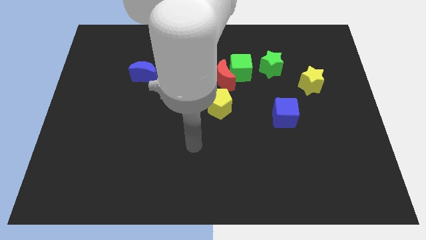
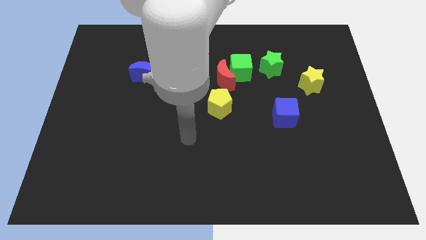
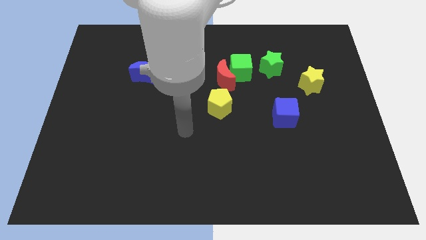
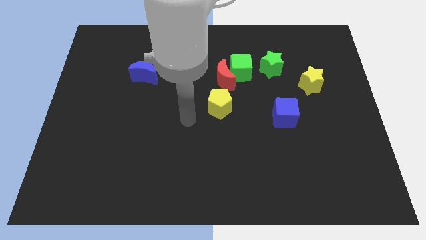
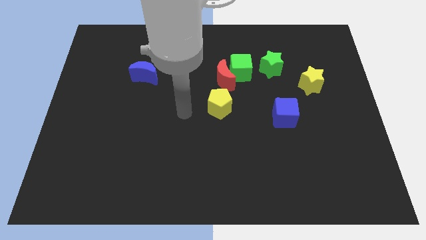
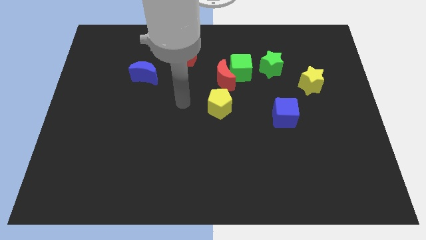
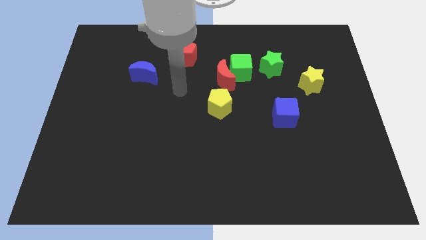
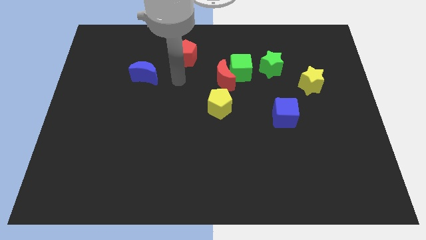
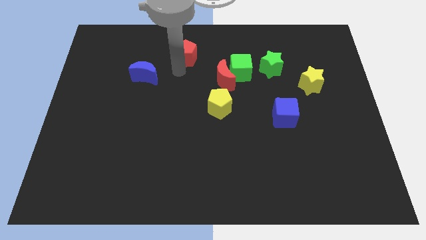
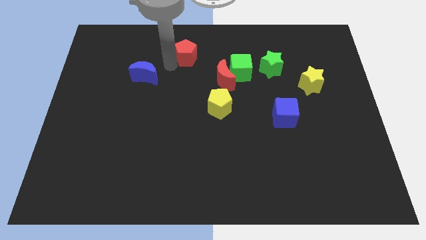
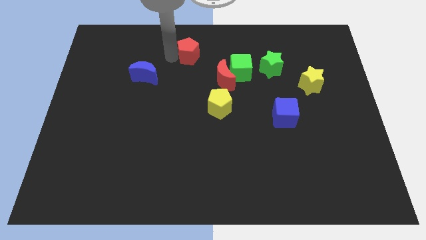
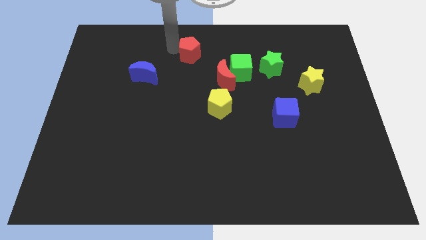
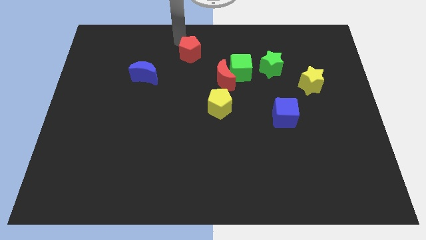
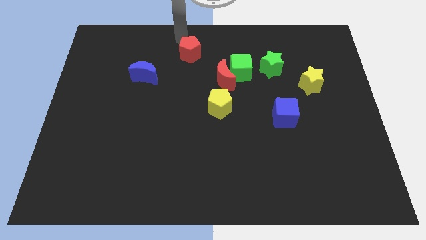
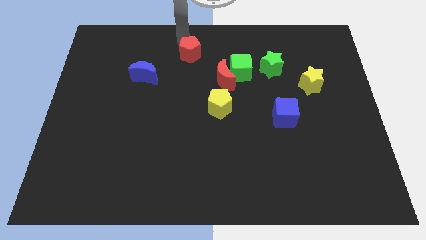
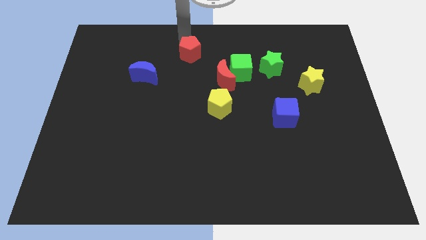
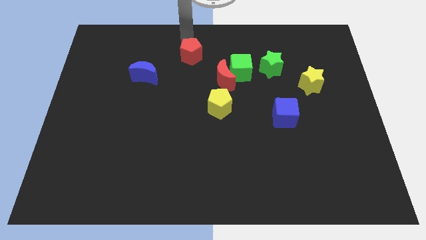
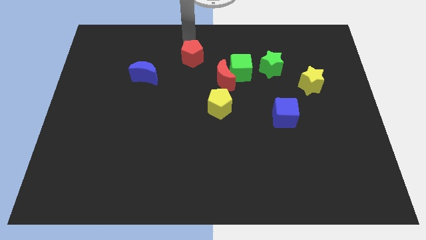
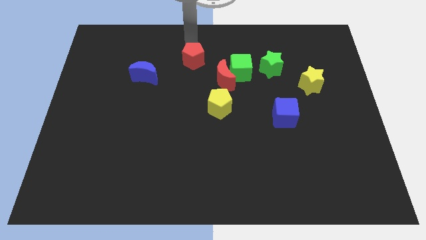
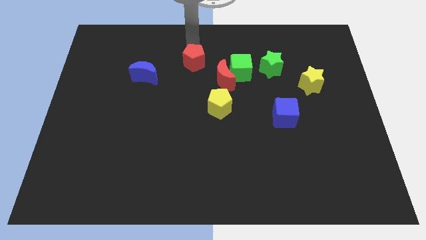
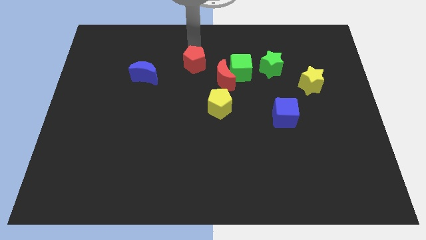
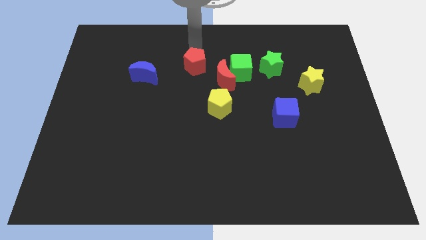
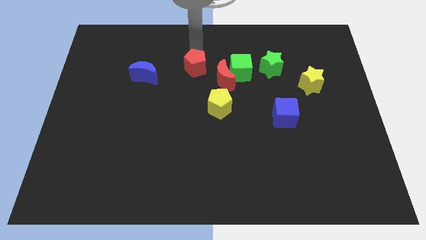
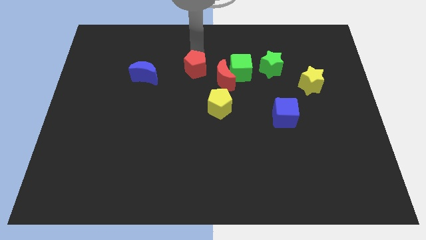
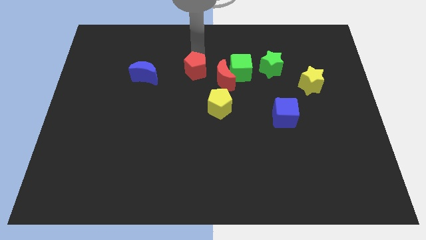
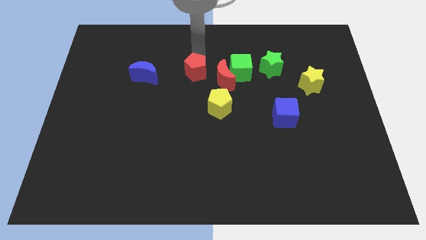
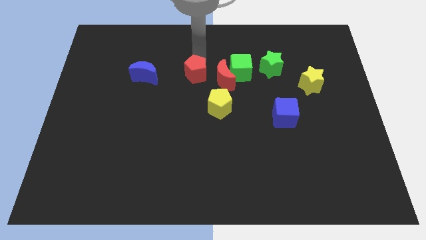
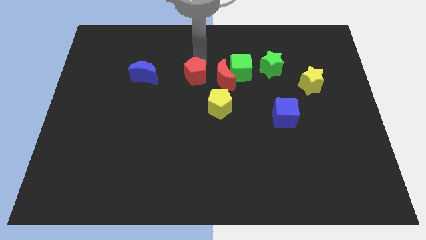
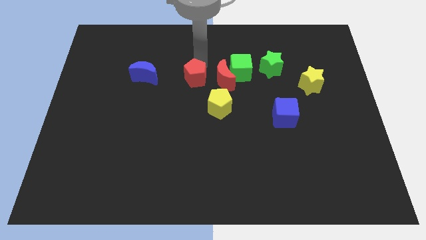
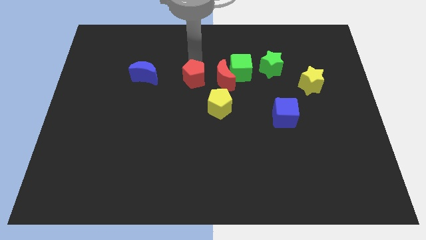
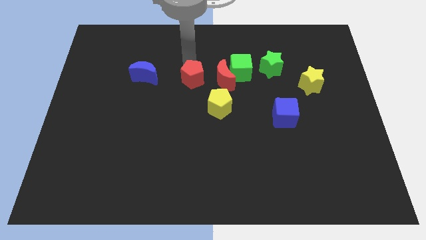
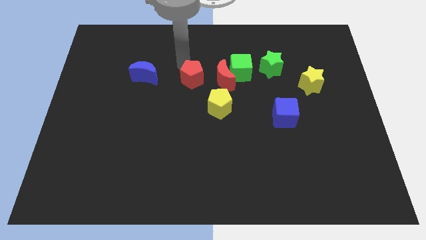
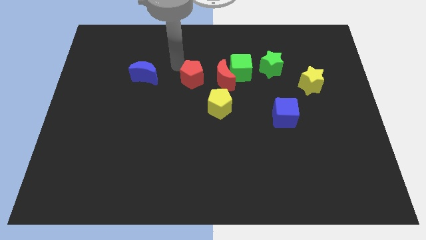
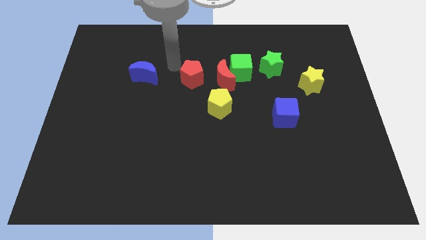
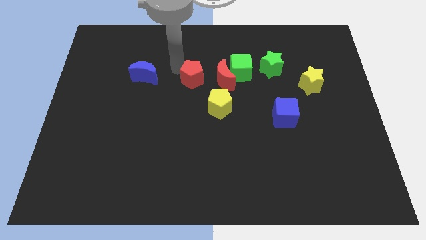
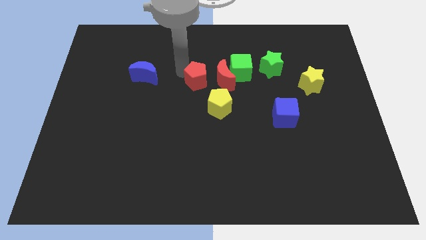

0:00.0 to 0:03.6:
slightly slide the red pentagon diagonally downwards and to the right

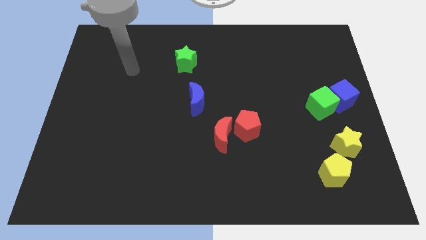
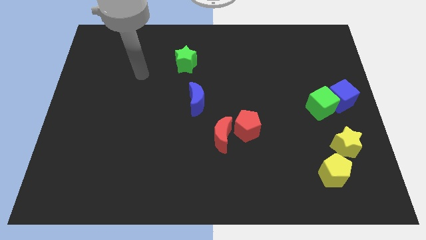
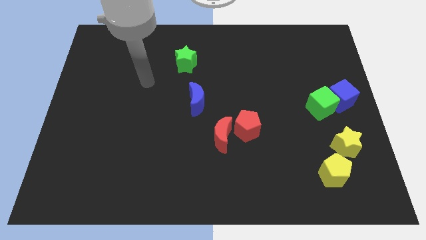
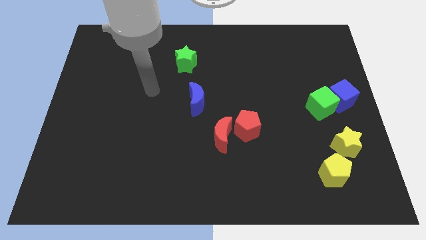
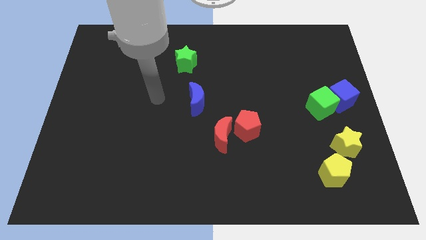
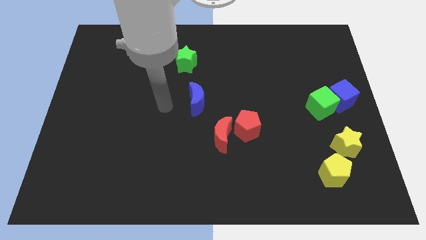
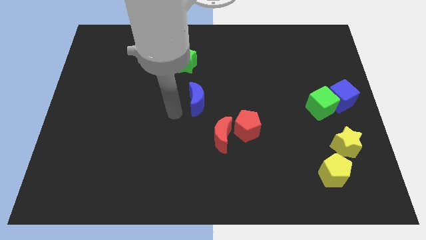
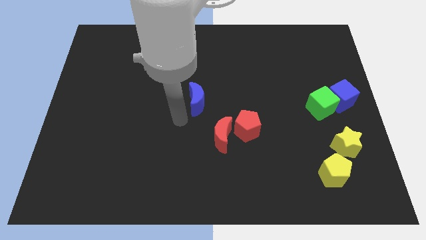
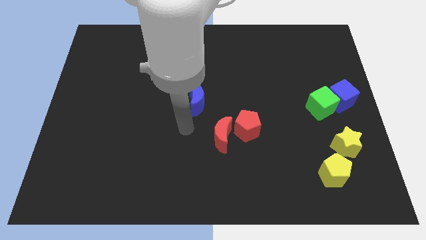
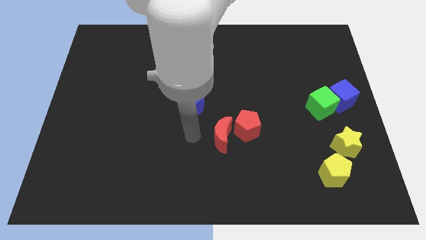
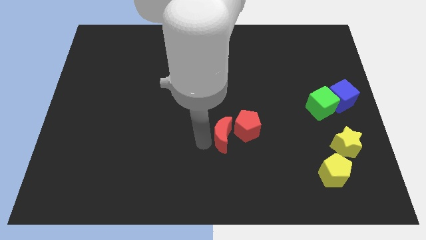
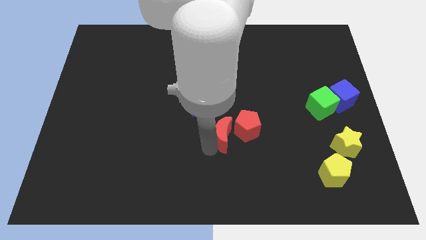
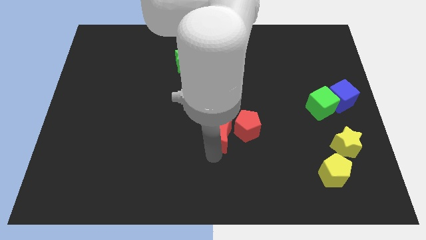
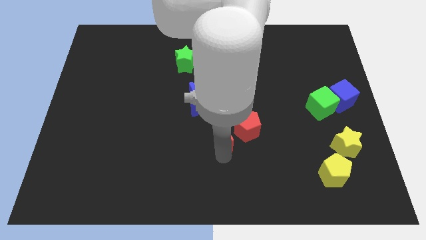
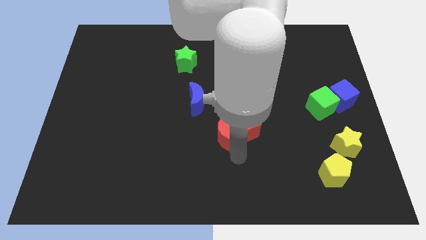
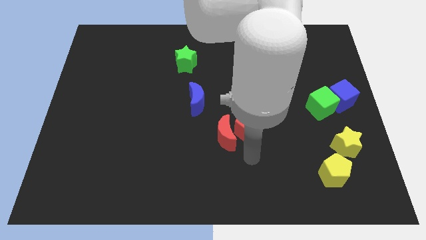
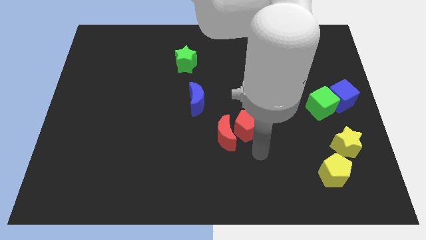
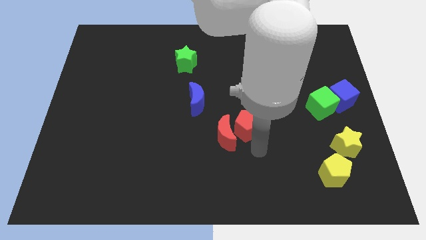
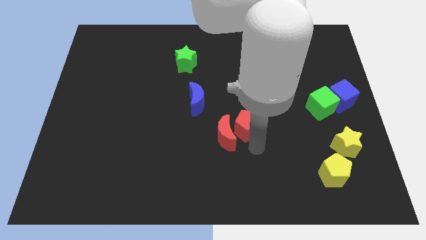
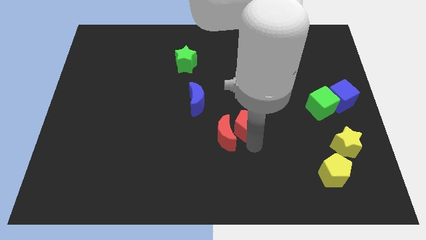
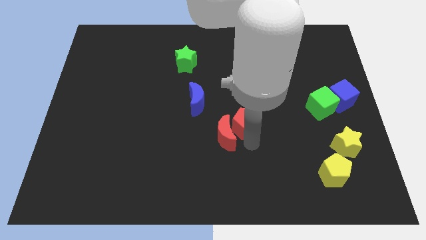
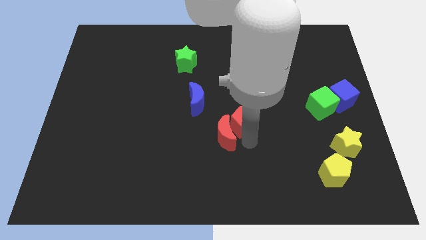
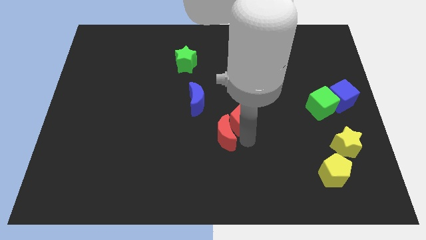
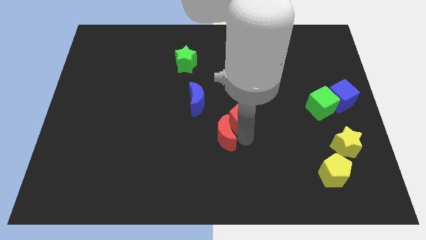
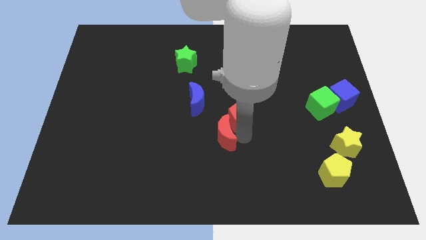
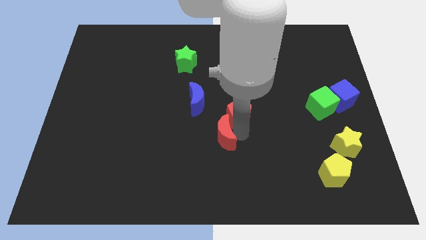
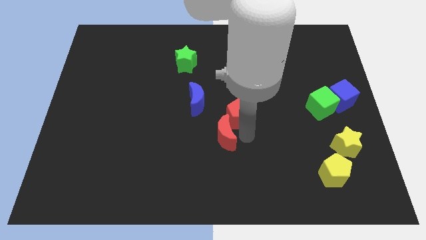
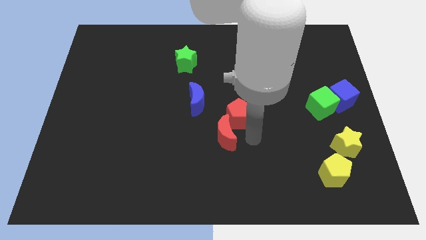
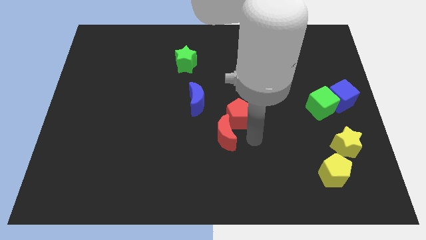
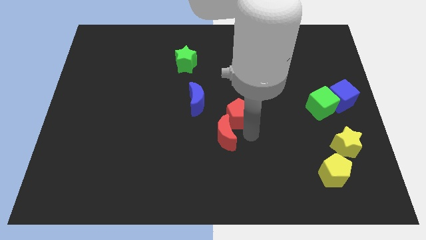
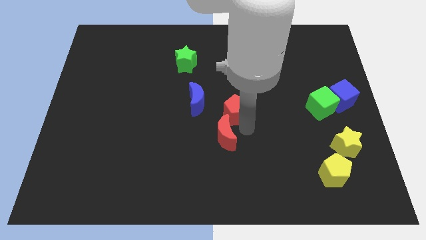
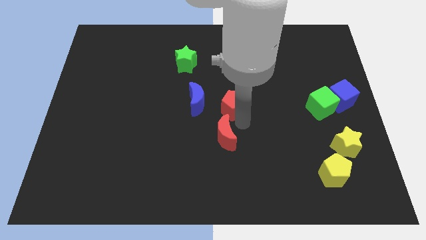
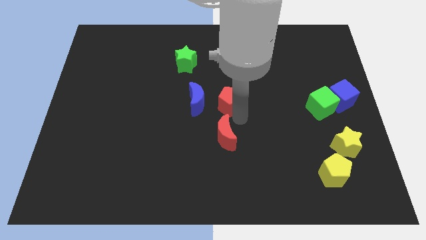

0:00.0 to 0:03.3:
slightly slide the red pentagon up and left

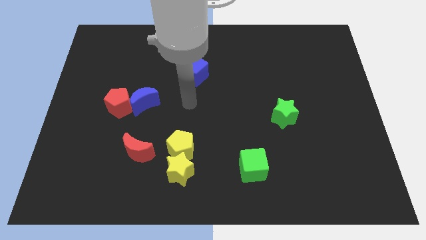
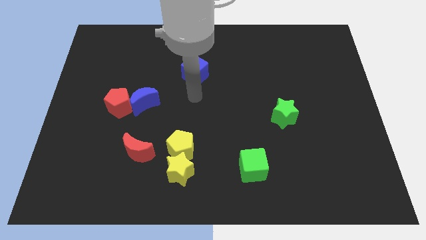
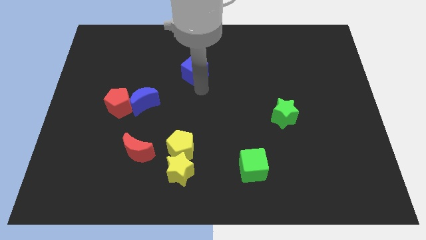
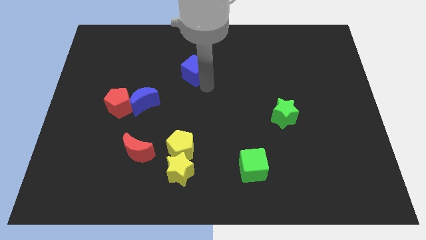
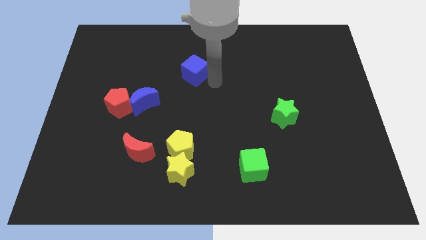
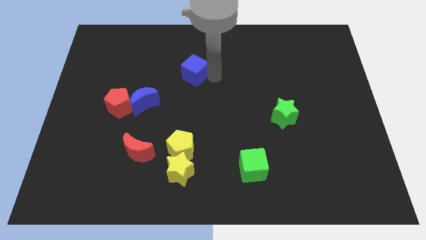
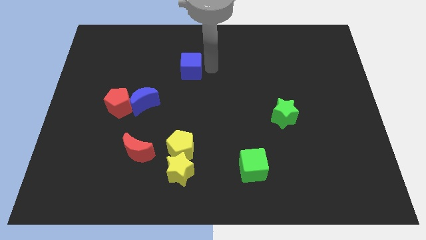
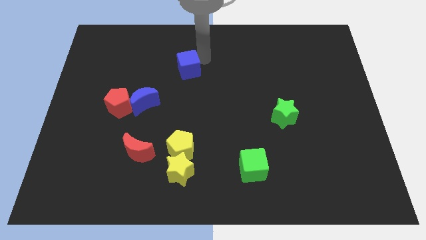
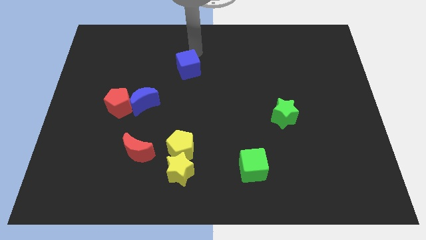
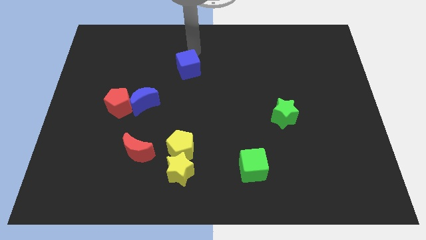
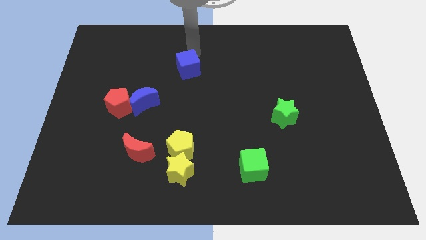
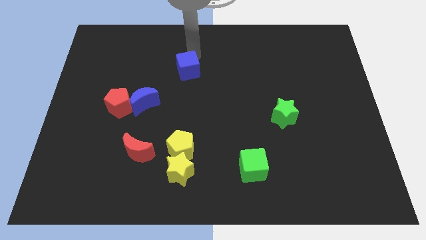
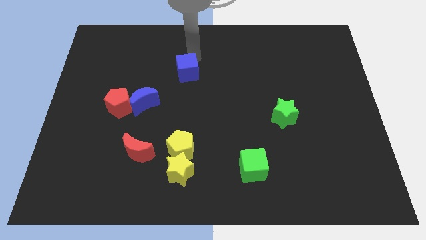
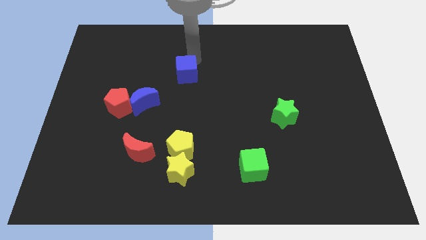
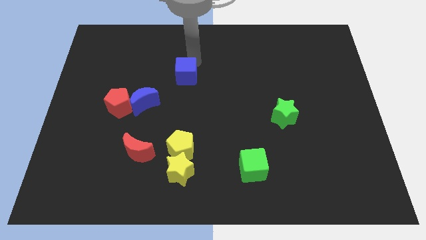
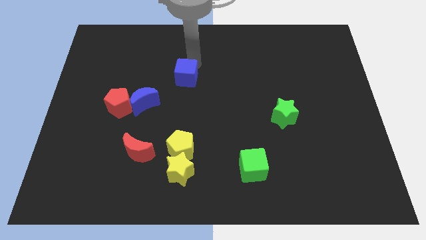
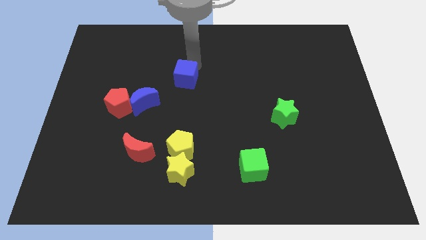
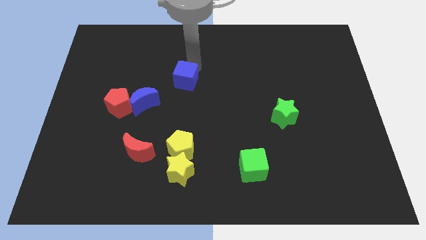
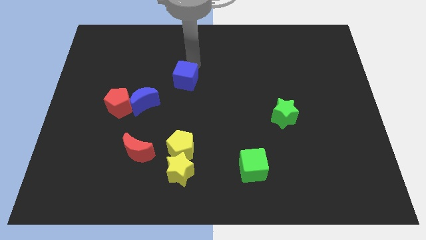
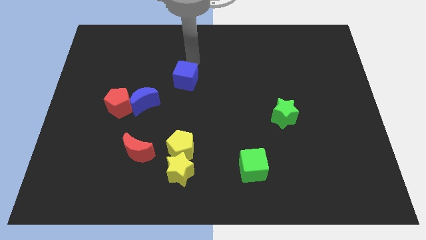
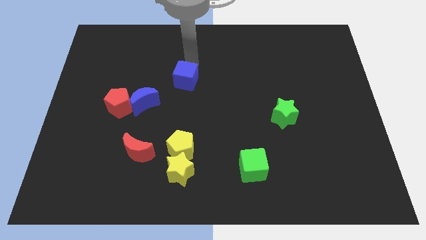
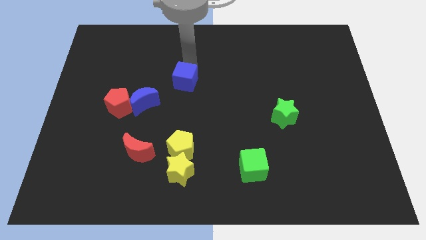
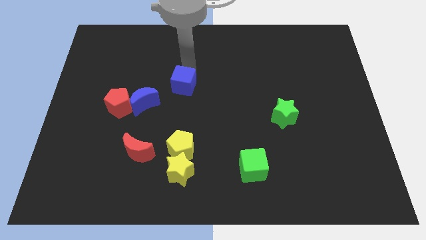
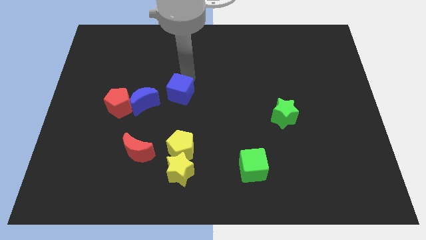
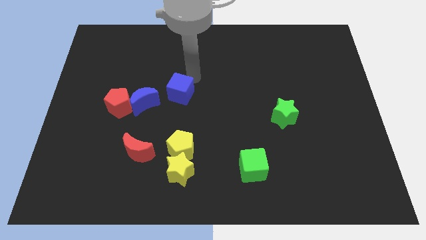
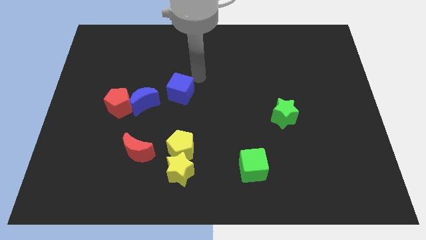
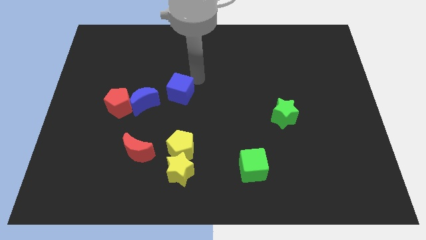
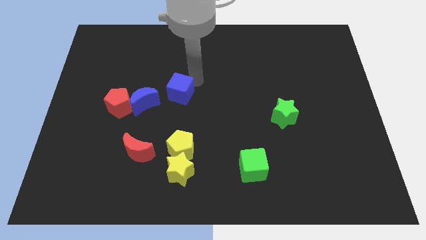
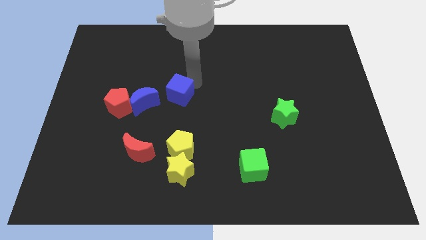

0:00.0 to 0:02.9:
move the blue cube downwards and then to the left a little
